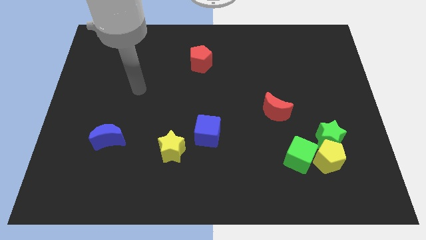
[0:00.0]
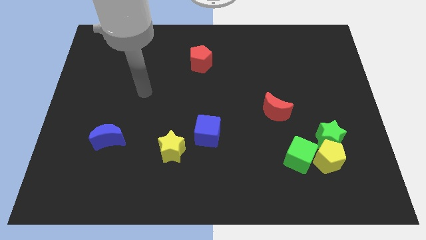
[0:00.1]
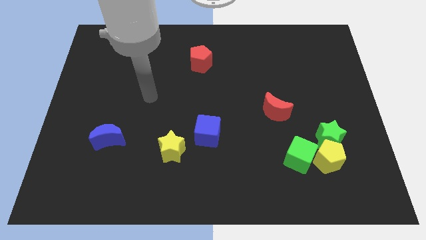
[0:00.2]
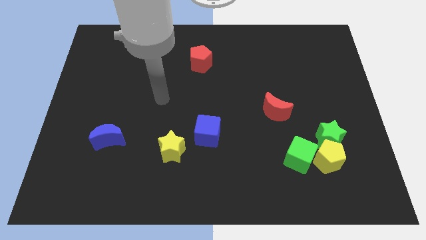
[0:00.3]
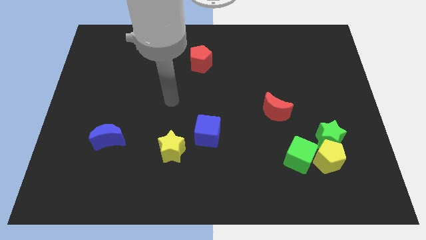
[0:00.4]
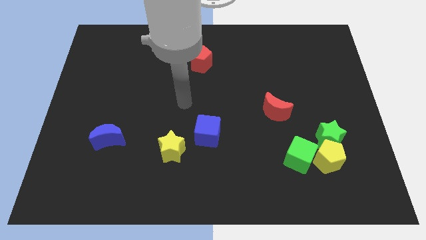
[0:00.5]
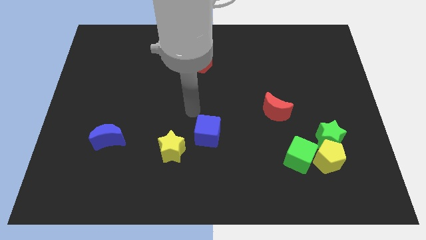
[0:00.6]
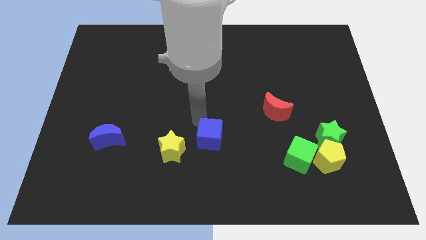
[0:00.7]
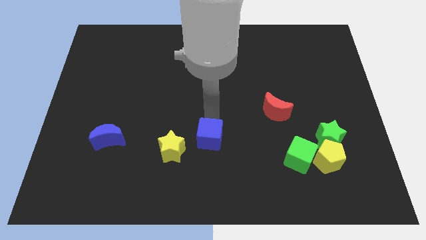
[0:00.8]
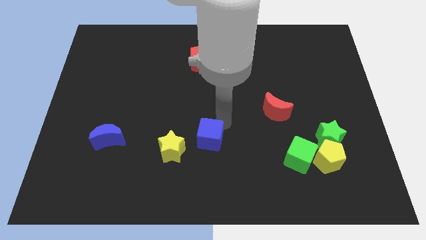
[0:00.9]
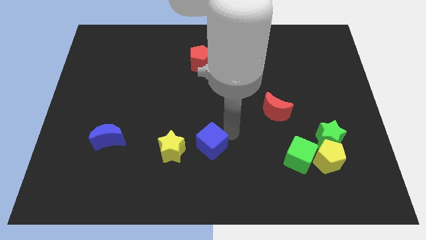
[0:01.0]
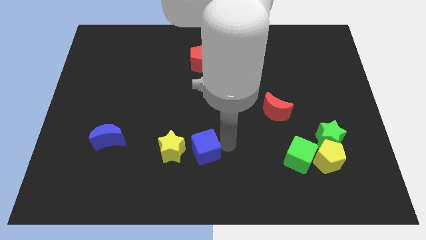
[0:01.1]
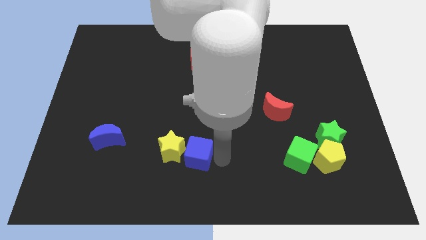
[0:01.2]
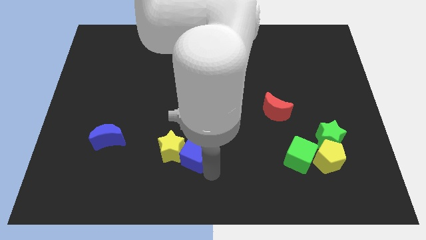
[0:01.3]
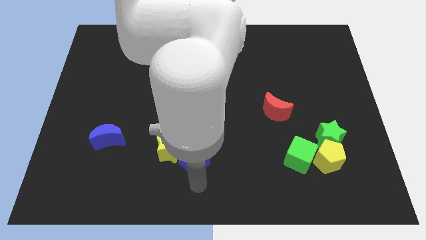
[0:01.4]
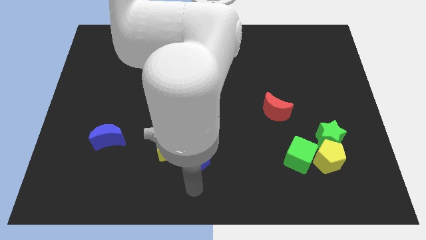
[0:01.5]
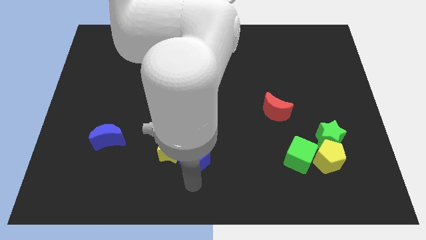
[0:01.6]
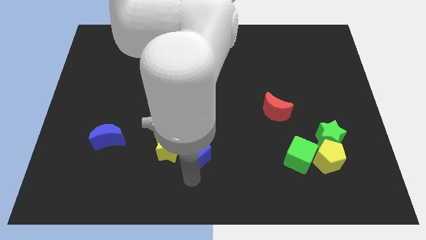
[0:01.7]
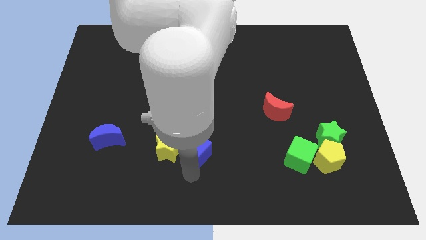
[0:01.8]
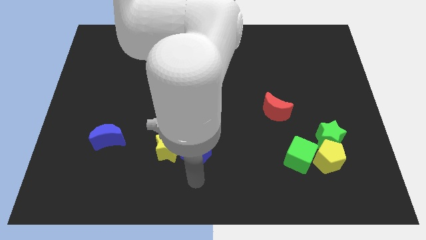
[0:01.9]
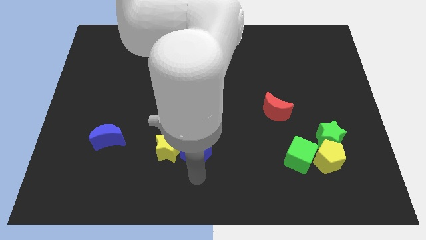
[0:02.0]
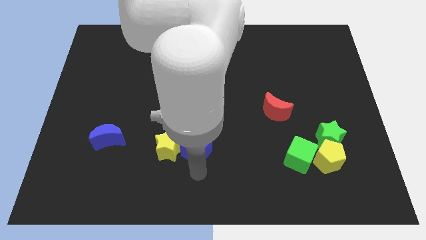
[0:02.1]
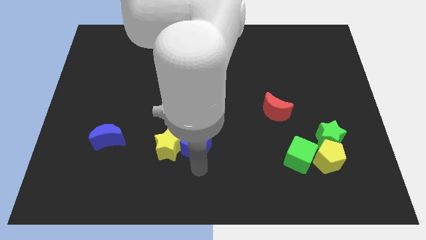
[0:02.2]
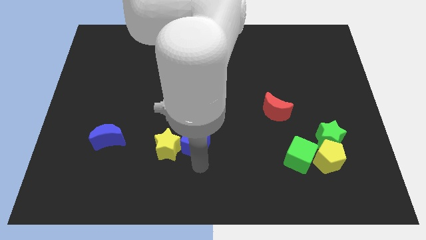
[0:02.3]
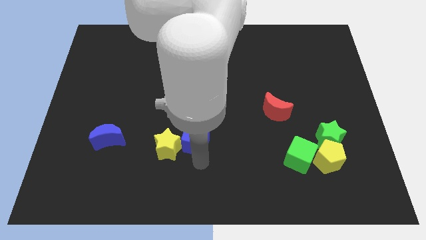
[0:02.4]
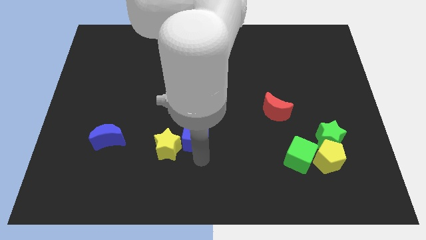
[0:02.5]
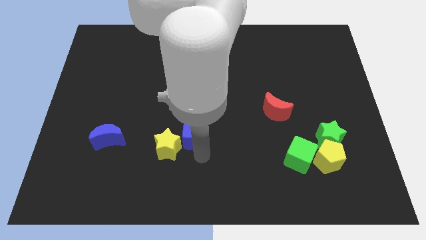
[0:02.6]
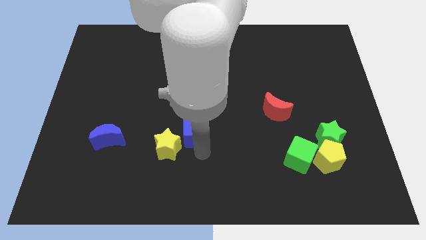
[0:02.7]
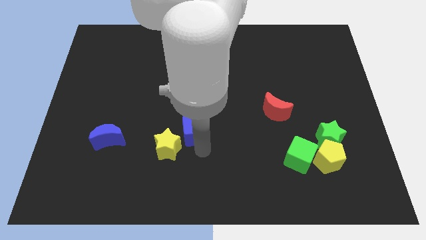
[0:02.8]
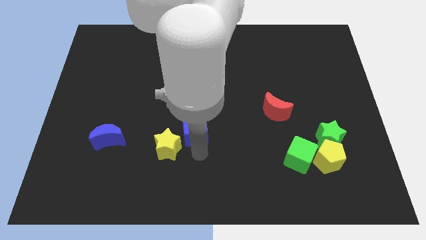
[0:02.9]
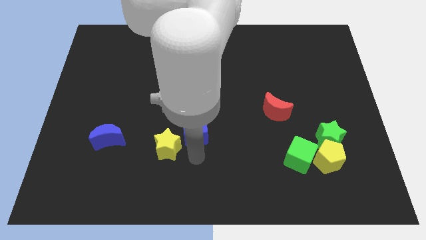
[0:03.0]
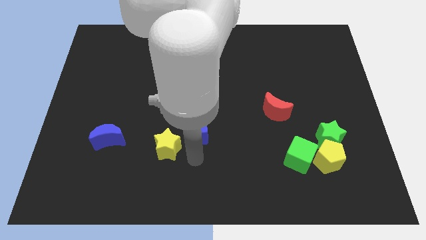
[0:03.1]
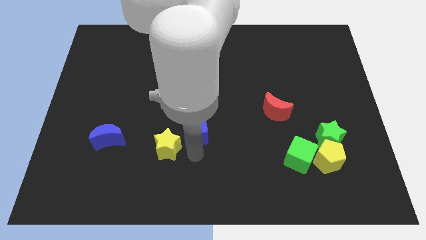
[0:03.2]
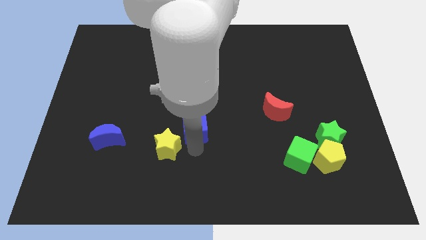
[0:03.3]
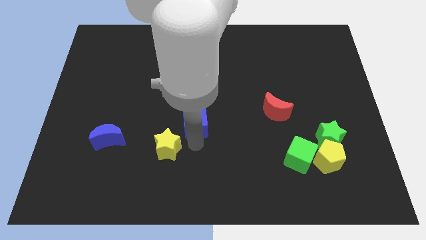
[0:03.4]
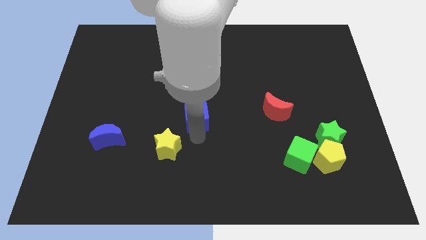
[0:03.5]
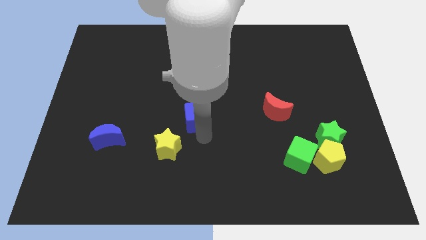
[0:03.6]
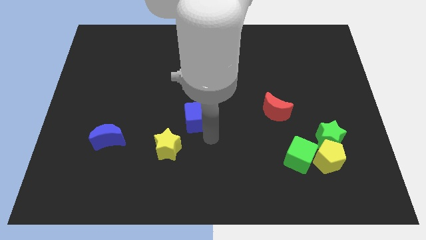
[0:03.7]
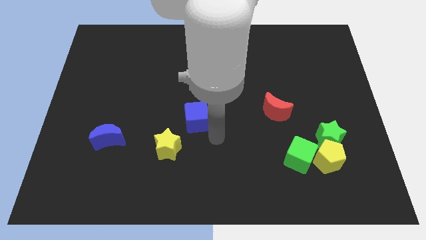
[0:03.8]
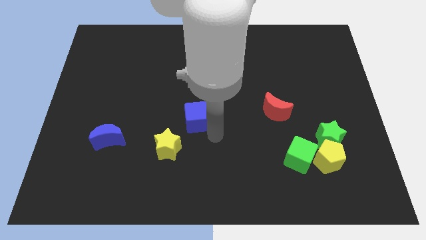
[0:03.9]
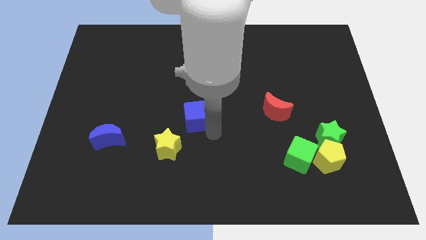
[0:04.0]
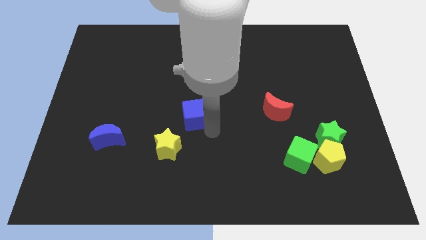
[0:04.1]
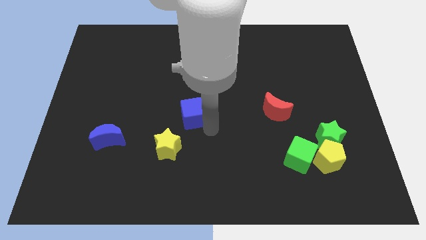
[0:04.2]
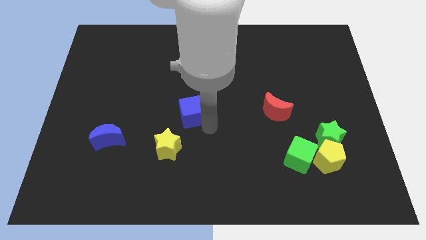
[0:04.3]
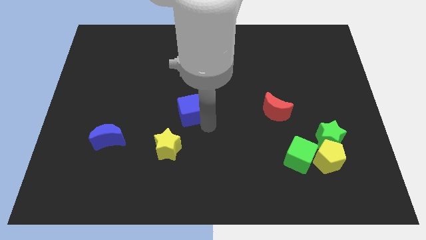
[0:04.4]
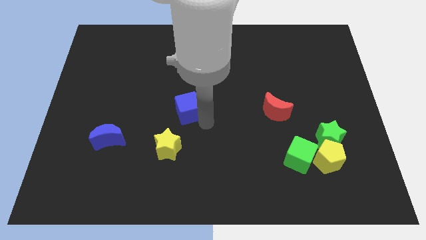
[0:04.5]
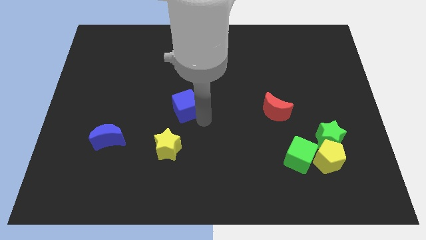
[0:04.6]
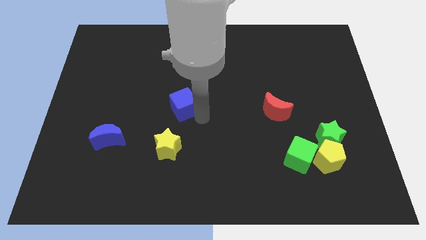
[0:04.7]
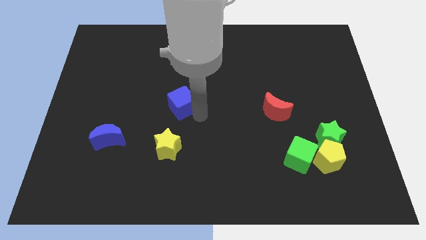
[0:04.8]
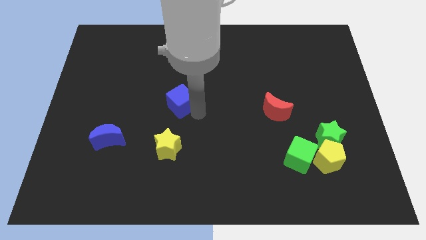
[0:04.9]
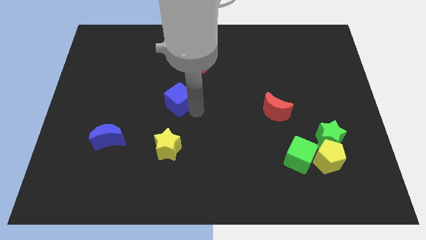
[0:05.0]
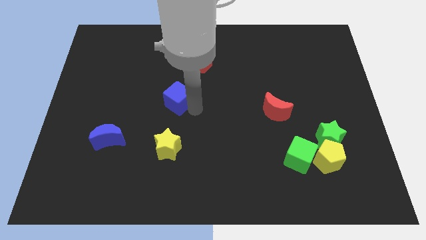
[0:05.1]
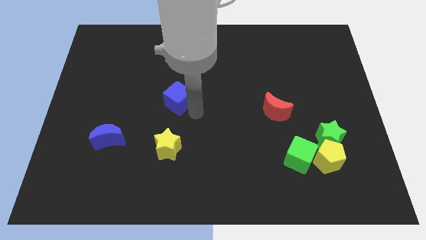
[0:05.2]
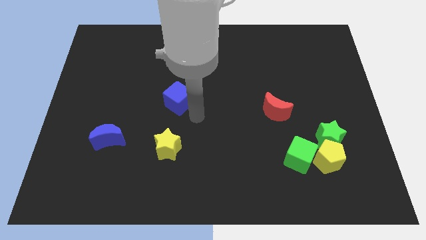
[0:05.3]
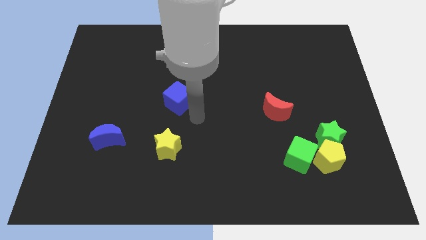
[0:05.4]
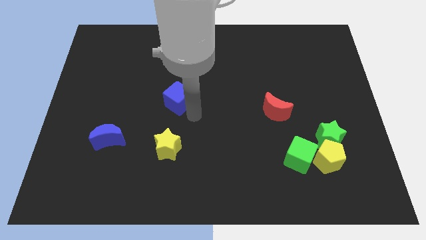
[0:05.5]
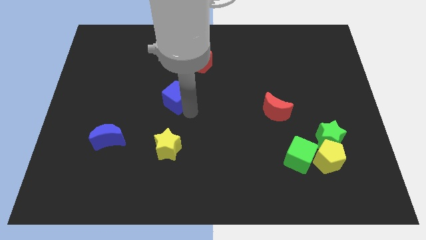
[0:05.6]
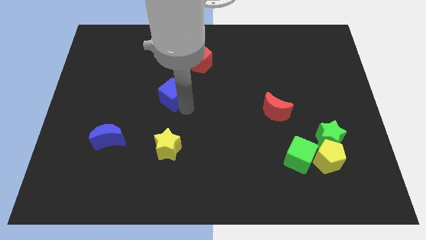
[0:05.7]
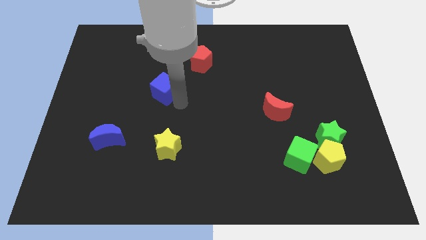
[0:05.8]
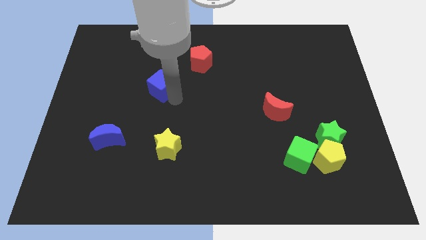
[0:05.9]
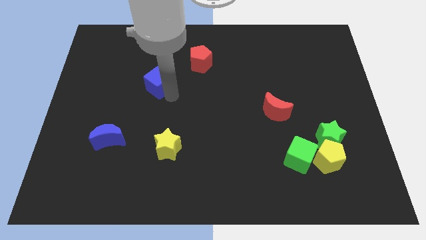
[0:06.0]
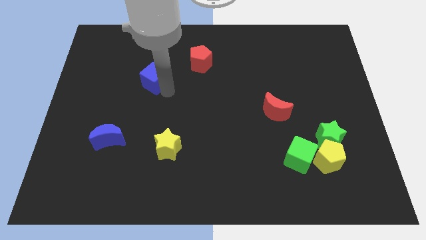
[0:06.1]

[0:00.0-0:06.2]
slide the blue cube up and to the left diagonally

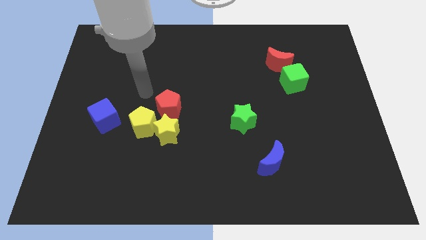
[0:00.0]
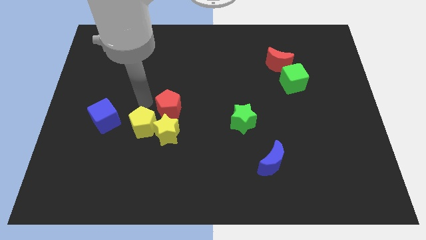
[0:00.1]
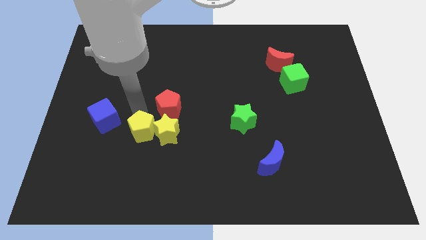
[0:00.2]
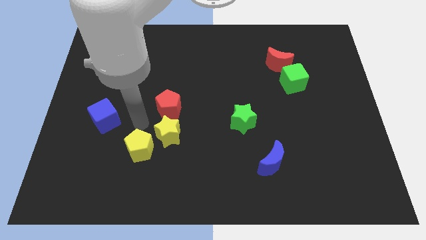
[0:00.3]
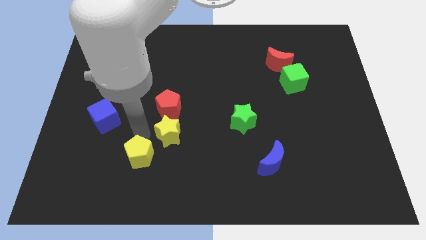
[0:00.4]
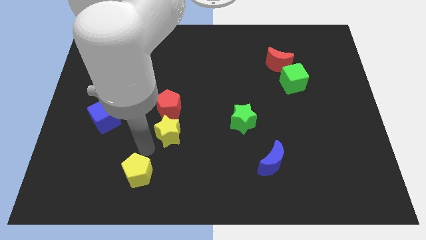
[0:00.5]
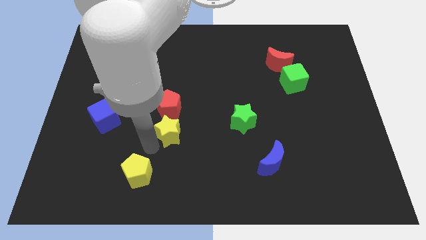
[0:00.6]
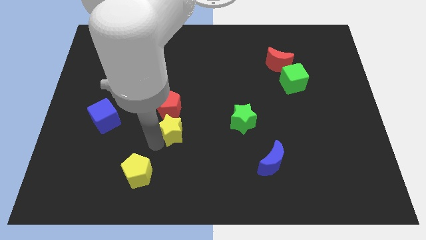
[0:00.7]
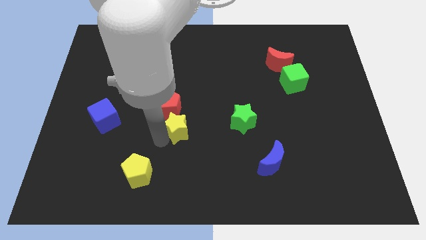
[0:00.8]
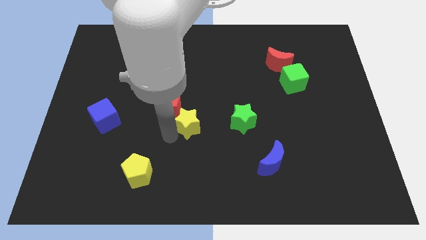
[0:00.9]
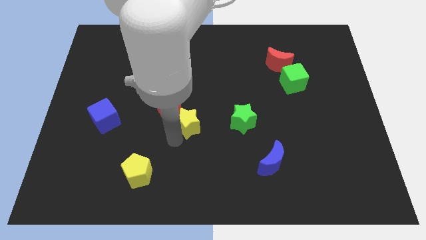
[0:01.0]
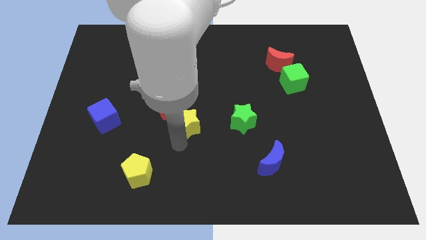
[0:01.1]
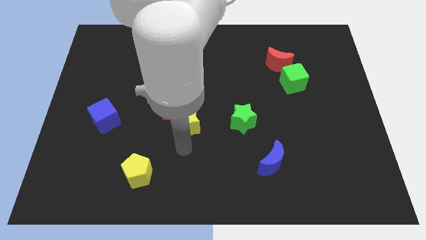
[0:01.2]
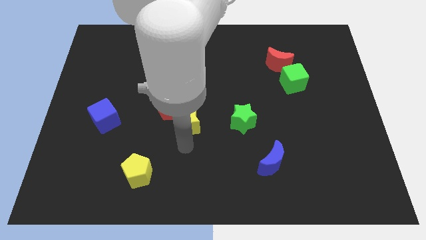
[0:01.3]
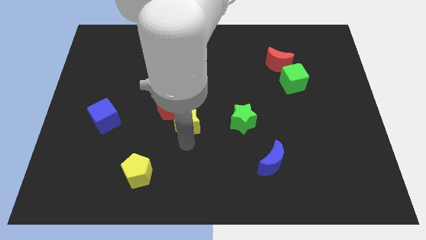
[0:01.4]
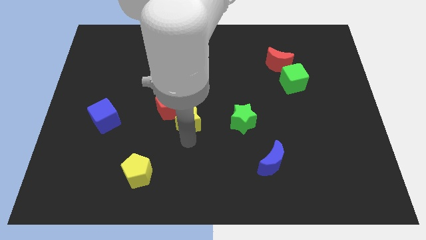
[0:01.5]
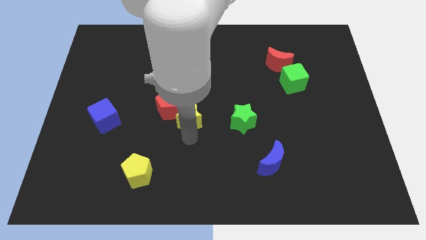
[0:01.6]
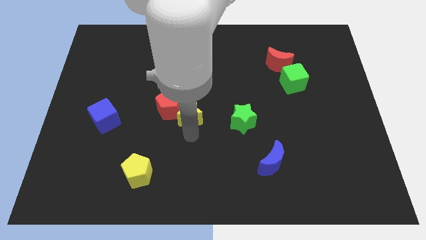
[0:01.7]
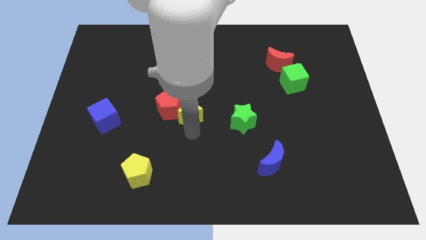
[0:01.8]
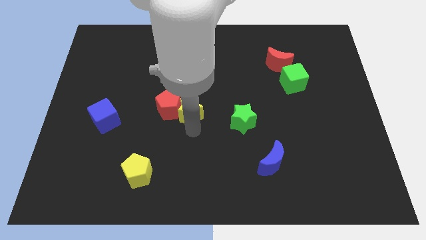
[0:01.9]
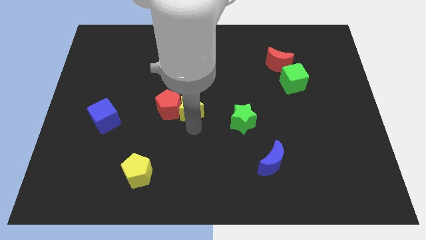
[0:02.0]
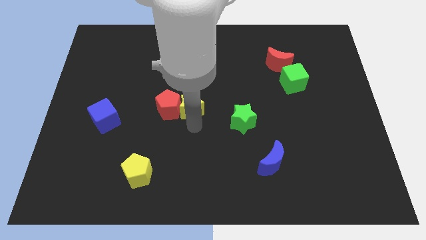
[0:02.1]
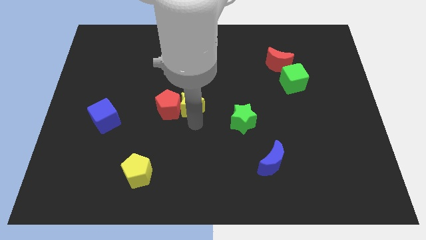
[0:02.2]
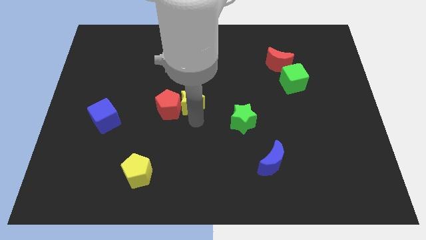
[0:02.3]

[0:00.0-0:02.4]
slightly slide the yellow star up
